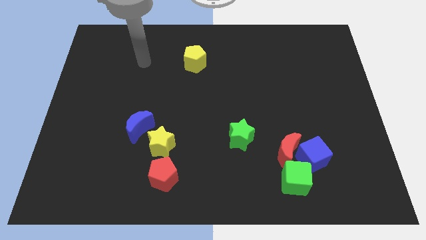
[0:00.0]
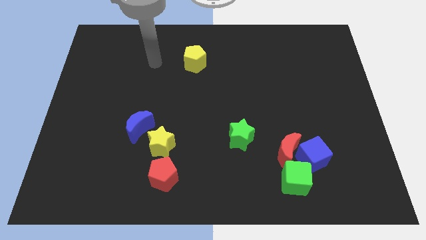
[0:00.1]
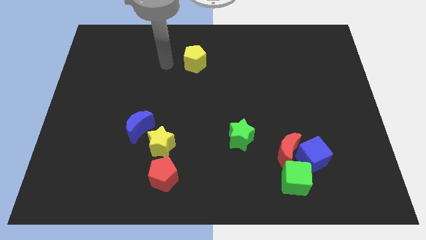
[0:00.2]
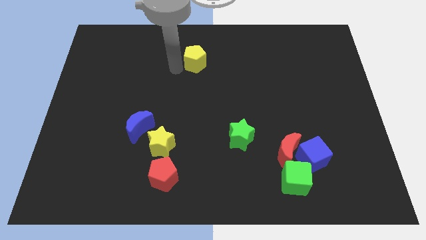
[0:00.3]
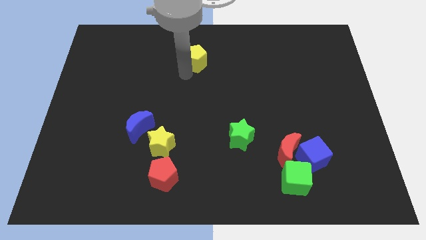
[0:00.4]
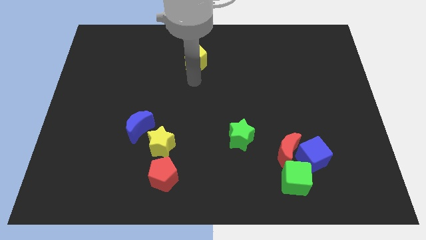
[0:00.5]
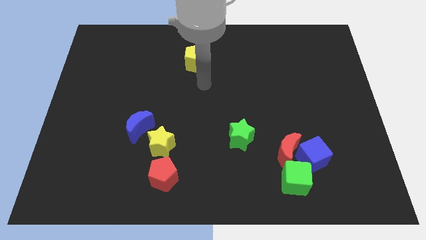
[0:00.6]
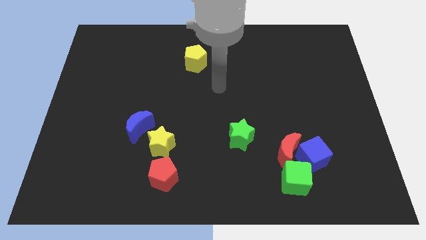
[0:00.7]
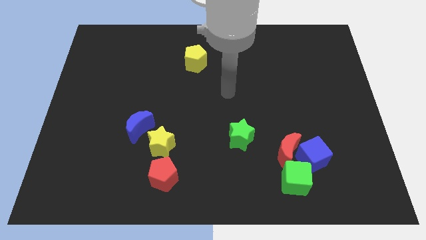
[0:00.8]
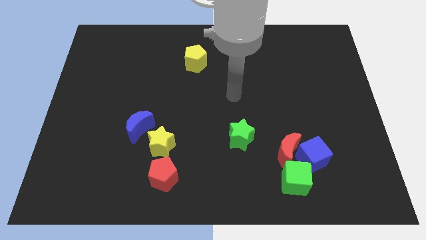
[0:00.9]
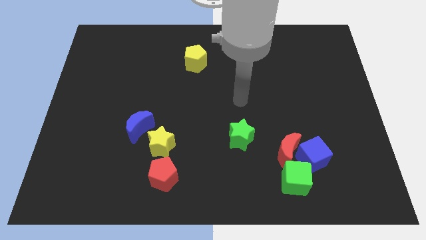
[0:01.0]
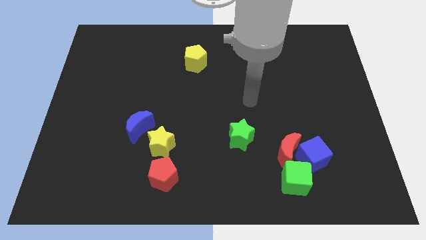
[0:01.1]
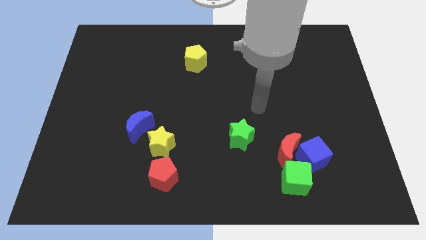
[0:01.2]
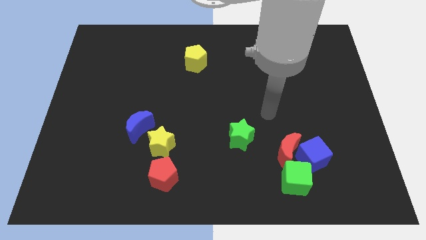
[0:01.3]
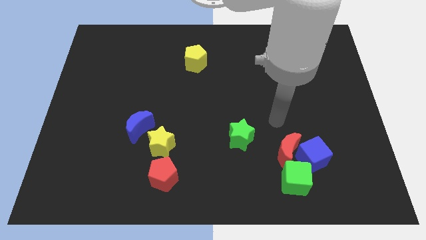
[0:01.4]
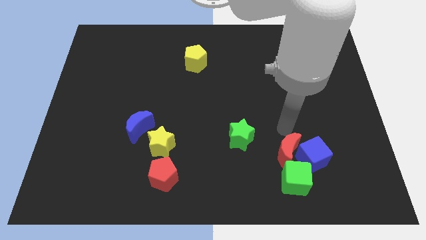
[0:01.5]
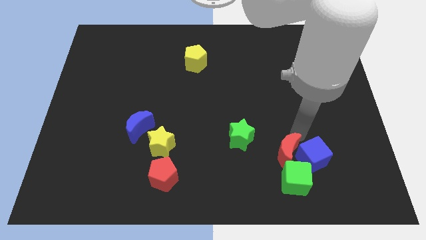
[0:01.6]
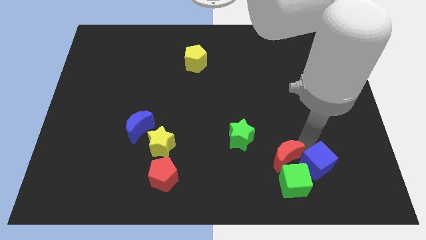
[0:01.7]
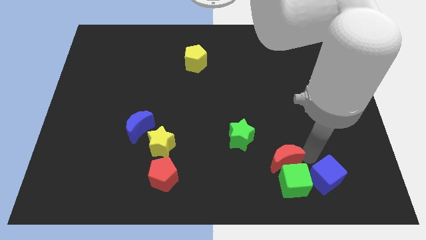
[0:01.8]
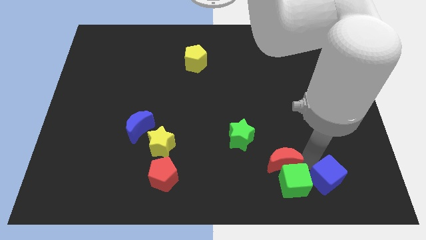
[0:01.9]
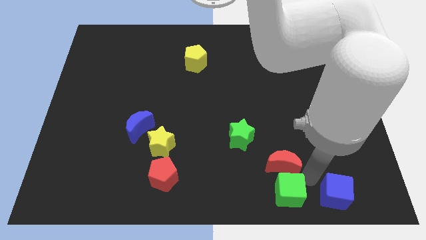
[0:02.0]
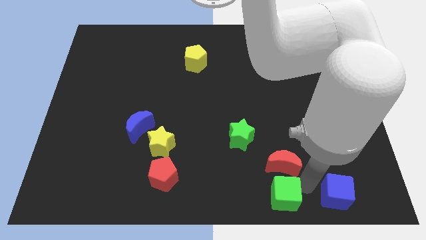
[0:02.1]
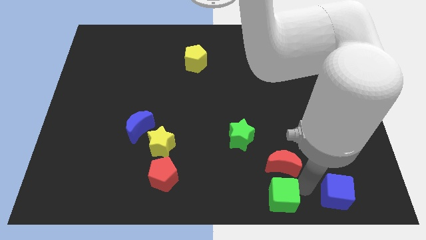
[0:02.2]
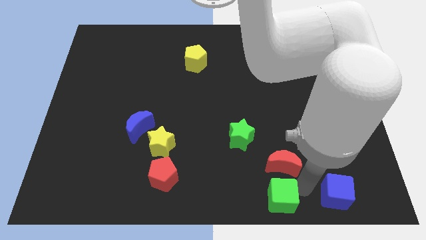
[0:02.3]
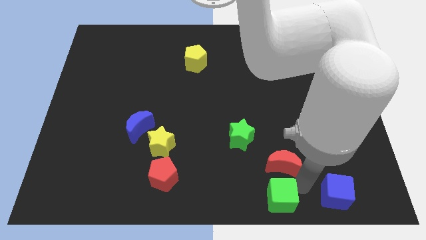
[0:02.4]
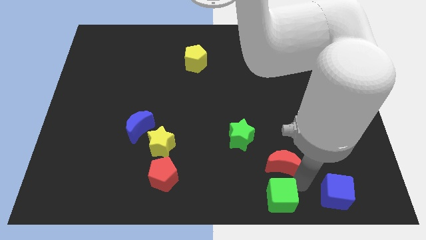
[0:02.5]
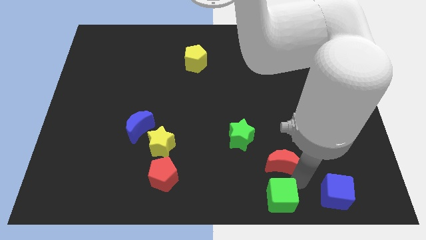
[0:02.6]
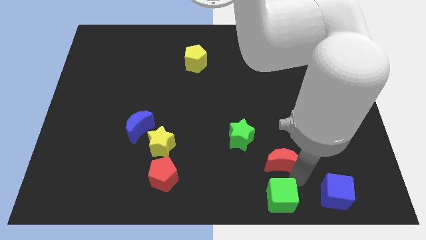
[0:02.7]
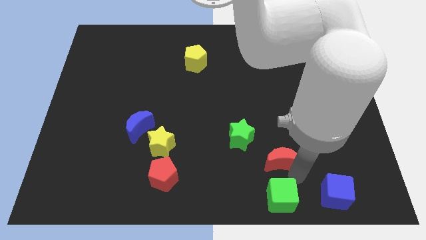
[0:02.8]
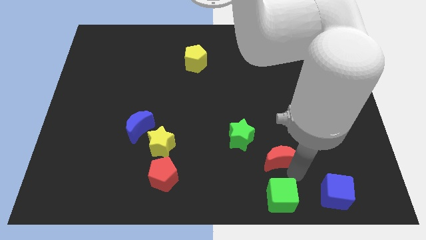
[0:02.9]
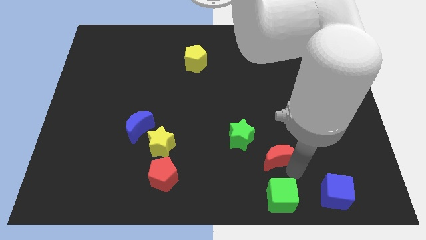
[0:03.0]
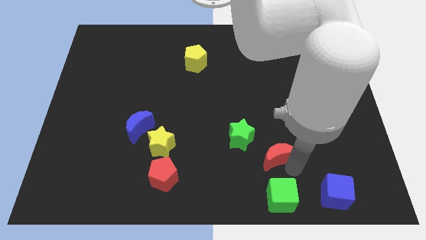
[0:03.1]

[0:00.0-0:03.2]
move the red moon away from the blue cube and green cube

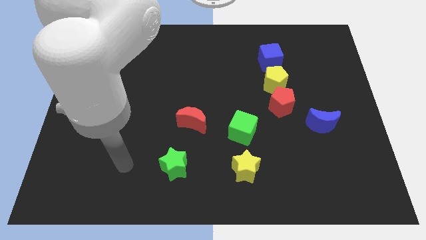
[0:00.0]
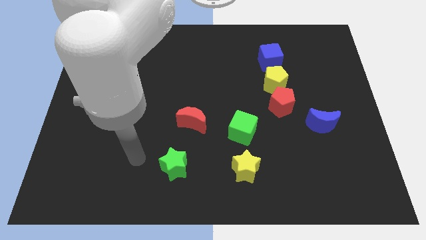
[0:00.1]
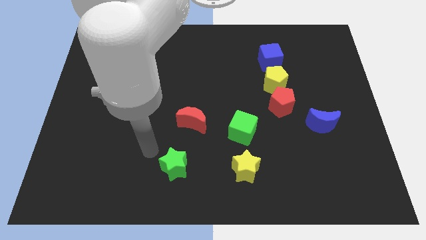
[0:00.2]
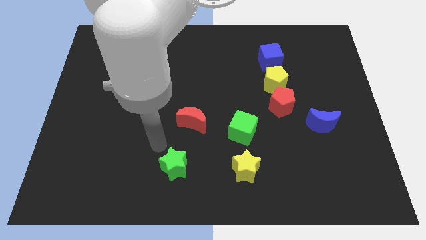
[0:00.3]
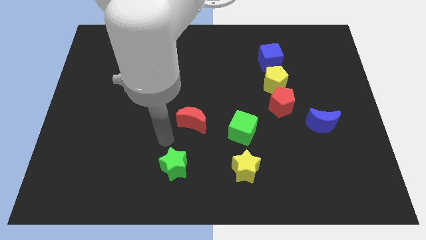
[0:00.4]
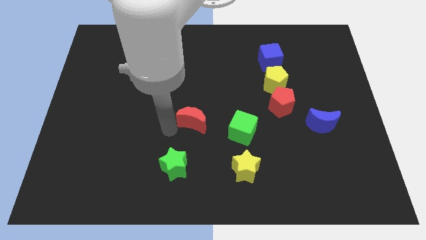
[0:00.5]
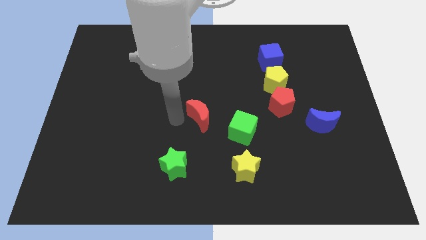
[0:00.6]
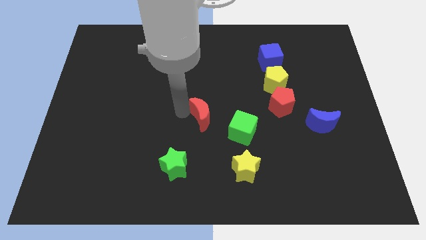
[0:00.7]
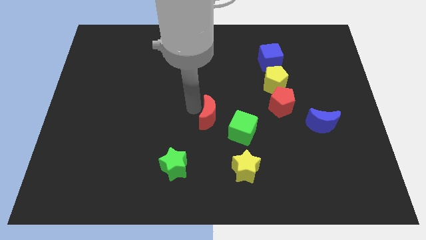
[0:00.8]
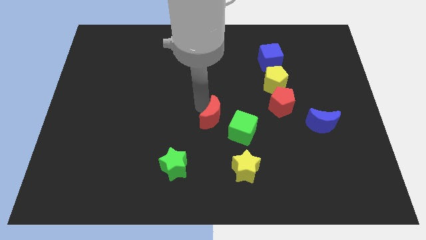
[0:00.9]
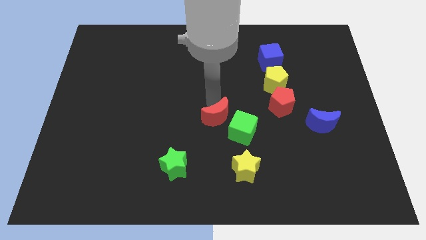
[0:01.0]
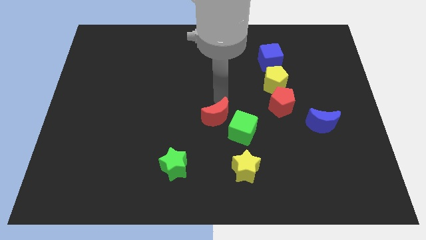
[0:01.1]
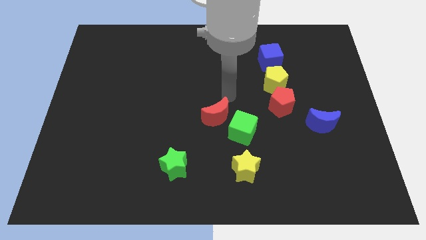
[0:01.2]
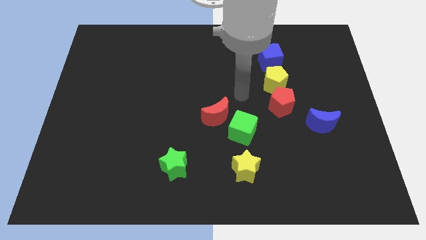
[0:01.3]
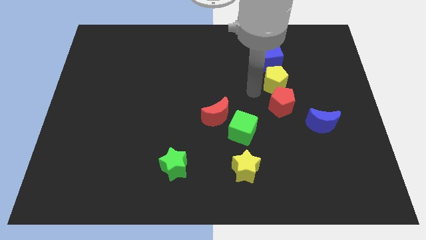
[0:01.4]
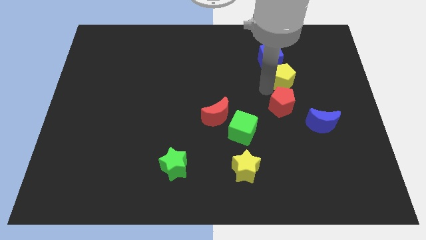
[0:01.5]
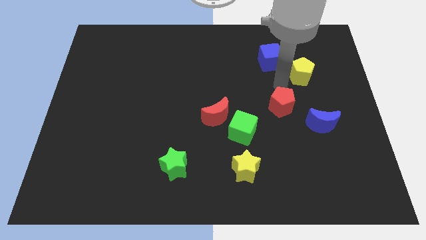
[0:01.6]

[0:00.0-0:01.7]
separate the red pentagon from the yellow pentagon

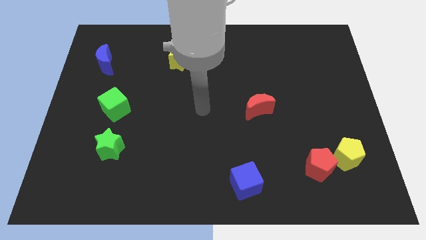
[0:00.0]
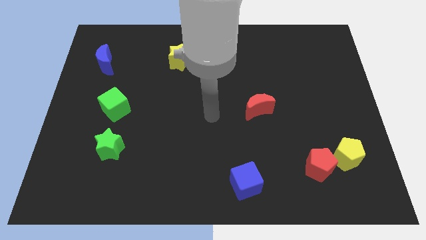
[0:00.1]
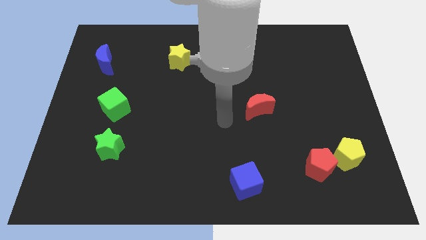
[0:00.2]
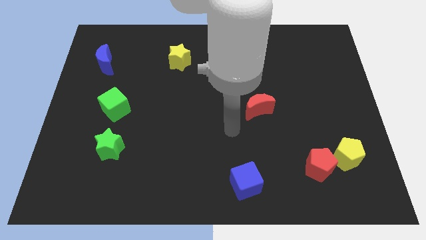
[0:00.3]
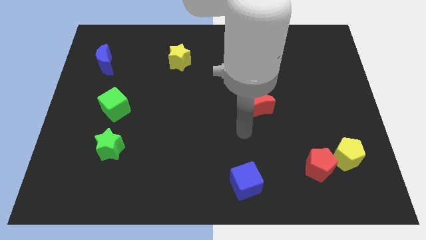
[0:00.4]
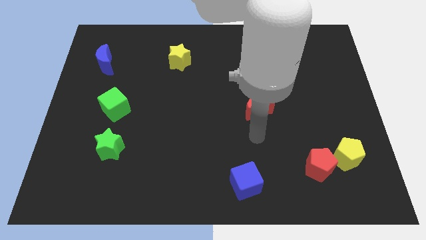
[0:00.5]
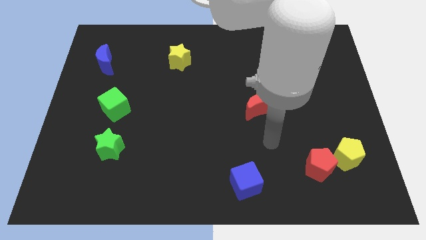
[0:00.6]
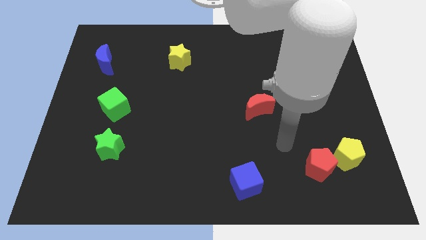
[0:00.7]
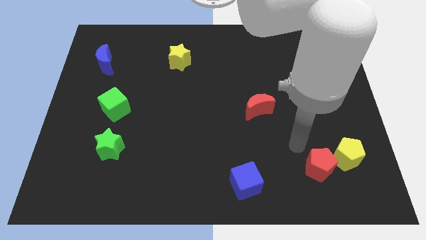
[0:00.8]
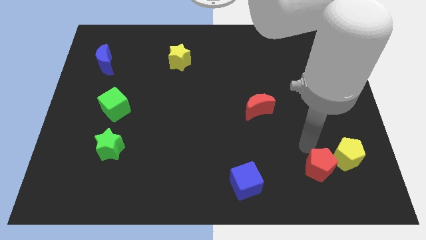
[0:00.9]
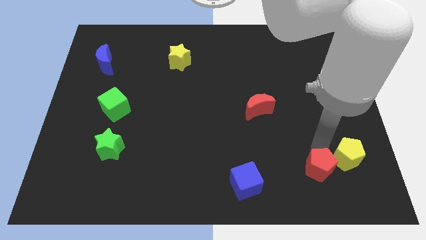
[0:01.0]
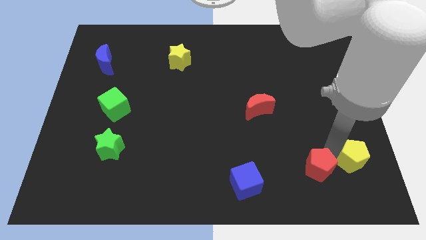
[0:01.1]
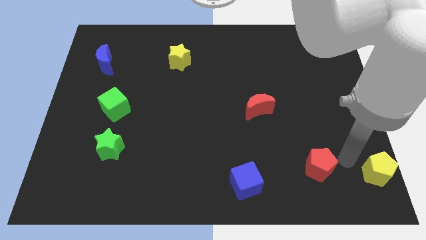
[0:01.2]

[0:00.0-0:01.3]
pull the red pentagon apart from the yellow pentagon

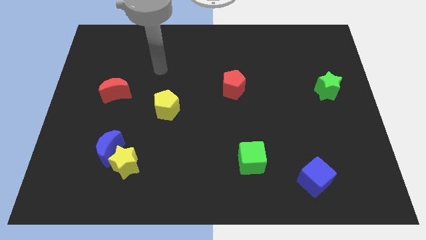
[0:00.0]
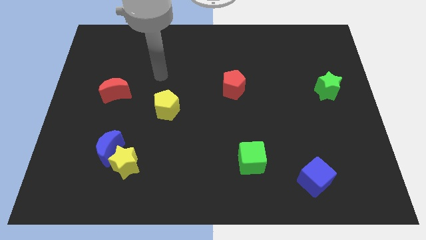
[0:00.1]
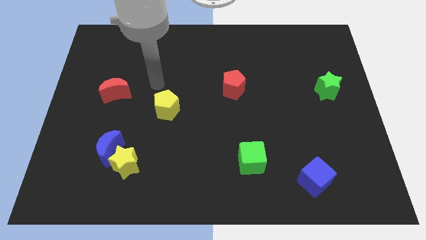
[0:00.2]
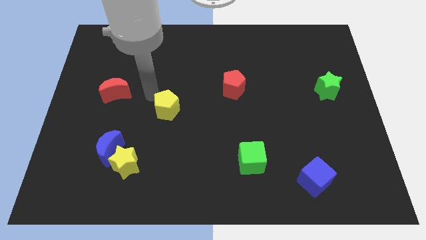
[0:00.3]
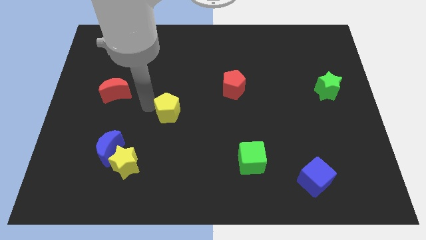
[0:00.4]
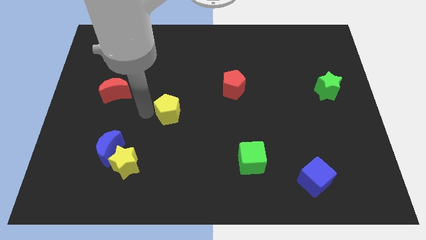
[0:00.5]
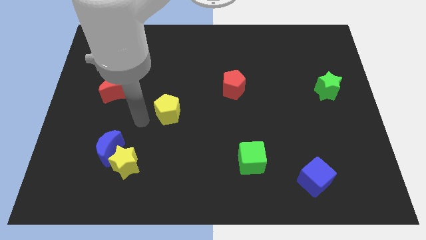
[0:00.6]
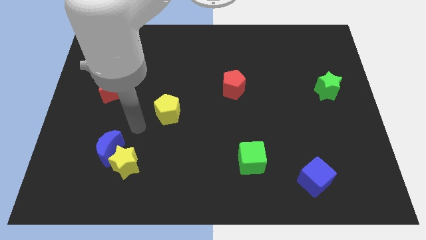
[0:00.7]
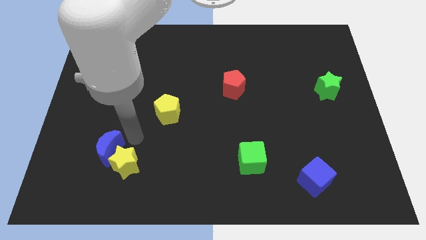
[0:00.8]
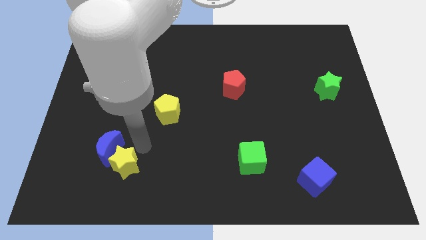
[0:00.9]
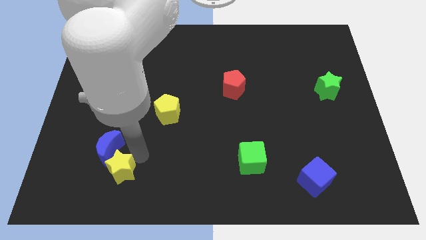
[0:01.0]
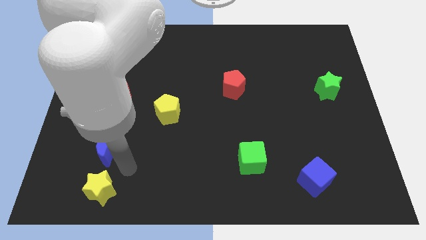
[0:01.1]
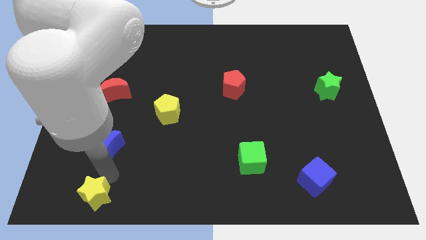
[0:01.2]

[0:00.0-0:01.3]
move the blue moon away from the yellow star

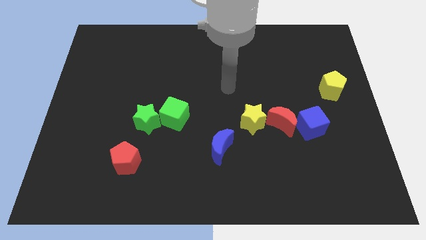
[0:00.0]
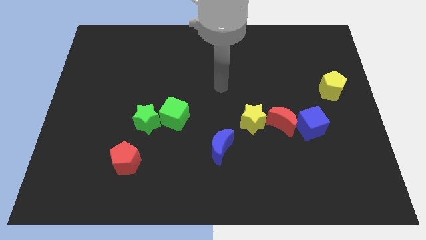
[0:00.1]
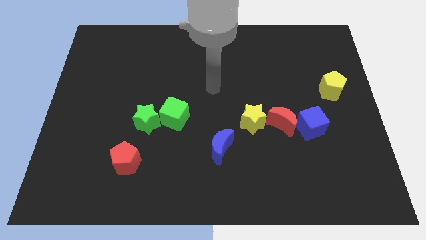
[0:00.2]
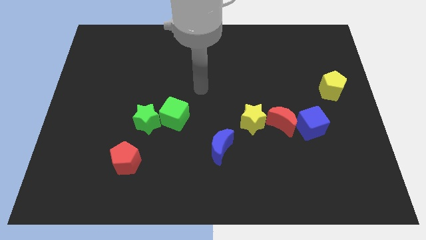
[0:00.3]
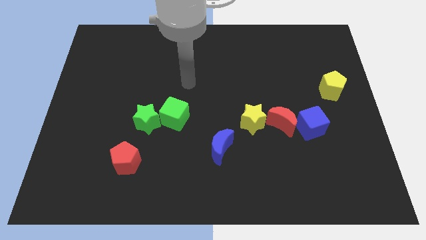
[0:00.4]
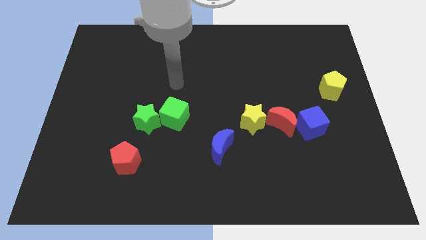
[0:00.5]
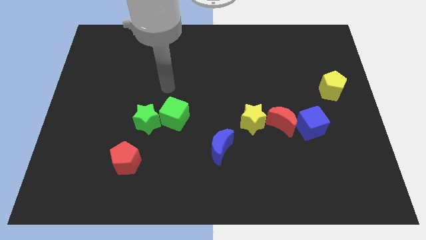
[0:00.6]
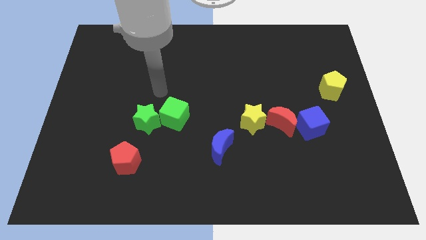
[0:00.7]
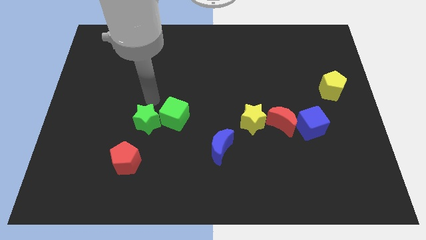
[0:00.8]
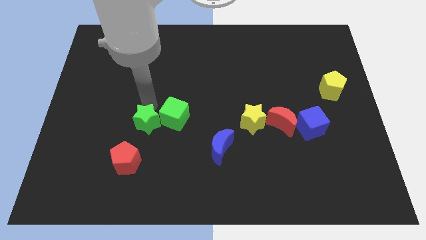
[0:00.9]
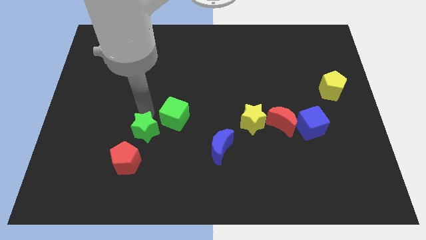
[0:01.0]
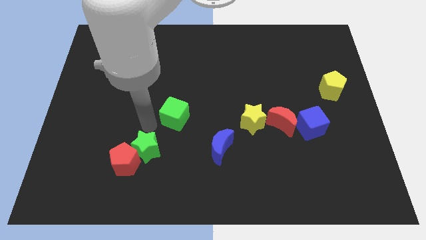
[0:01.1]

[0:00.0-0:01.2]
pull the green cube apart from the green star

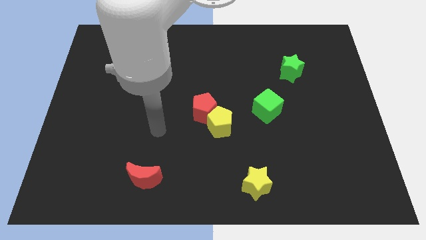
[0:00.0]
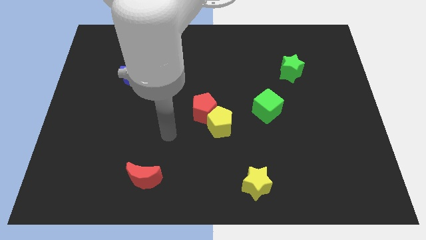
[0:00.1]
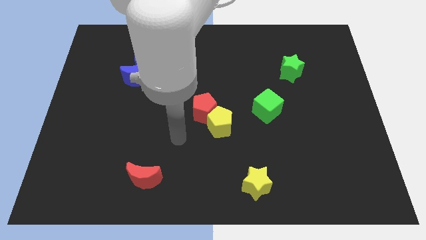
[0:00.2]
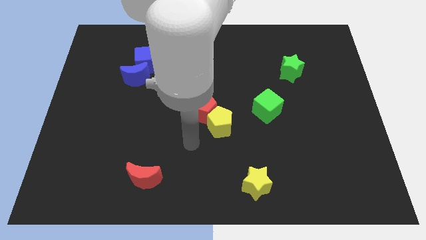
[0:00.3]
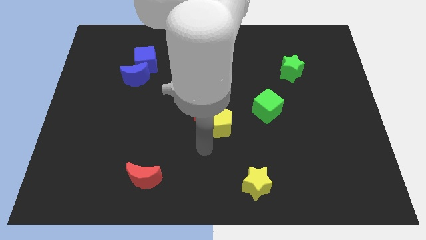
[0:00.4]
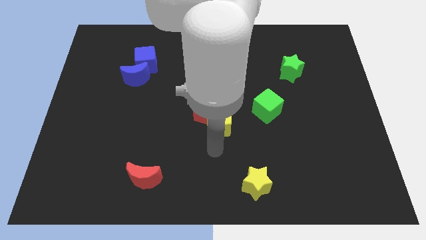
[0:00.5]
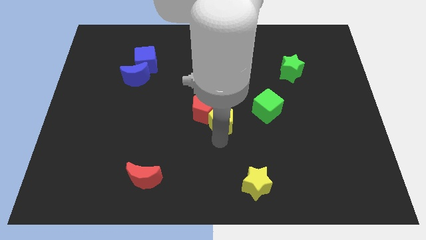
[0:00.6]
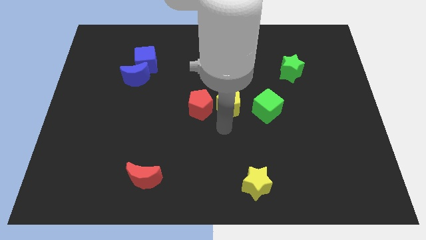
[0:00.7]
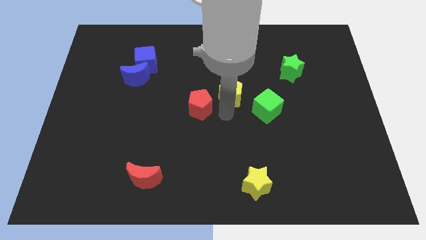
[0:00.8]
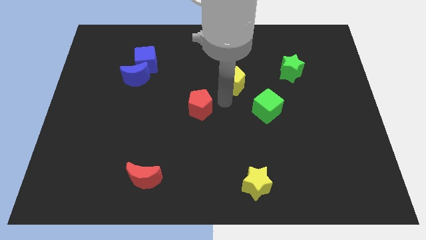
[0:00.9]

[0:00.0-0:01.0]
move the red pentagon away from the yellow pentagon
